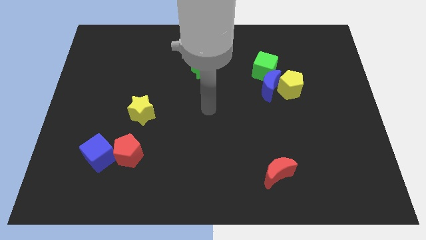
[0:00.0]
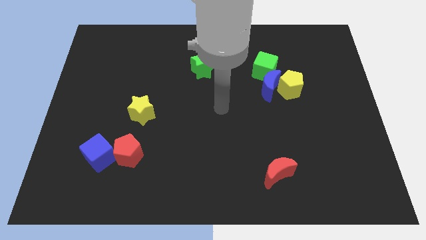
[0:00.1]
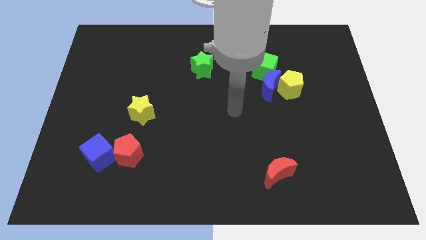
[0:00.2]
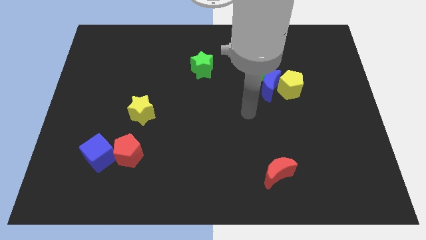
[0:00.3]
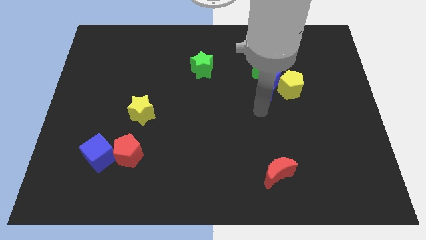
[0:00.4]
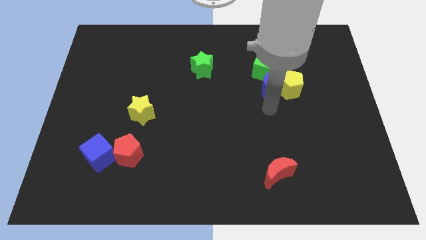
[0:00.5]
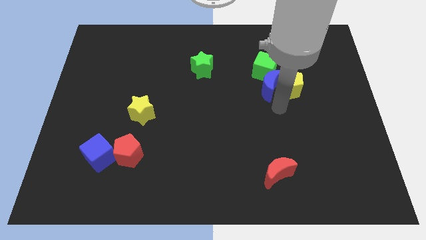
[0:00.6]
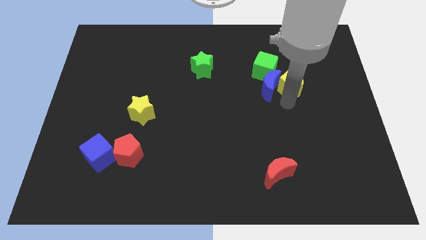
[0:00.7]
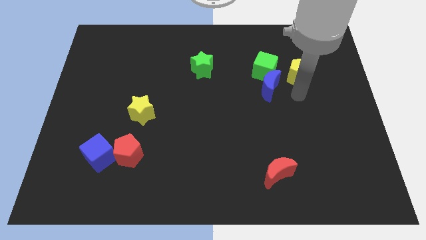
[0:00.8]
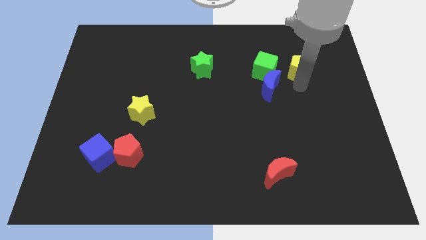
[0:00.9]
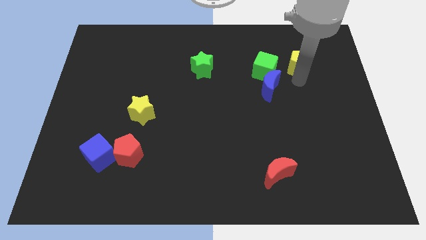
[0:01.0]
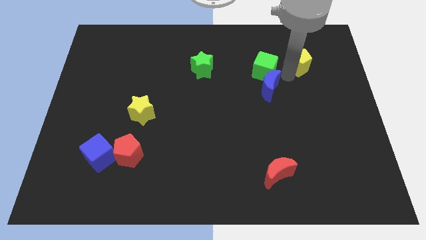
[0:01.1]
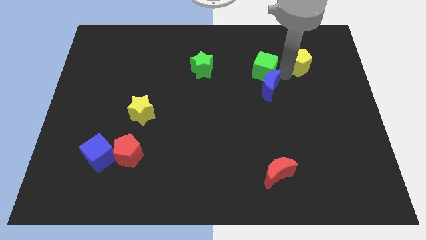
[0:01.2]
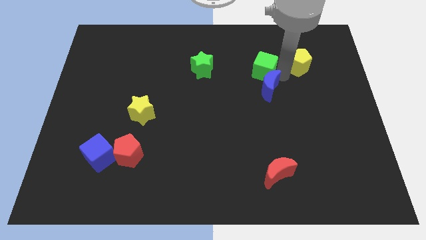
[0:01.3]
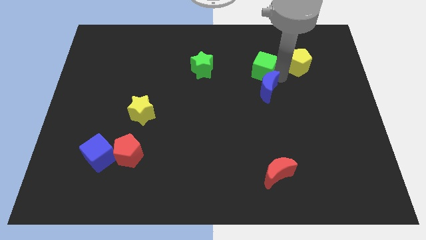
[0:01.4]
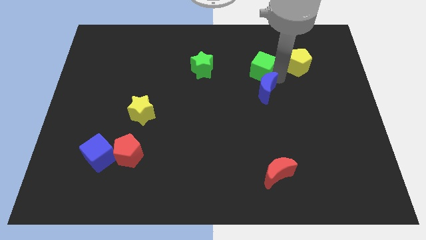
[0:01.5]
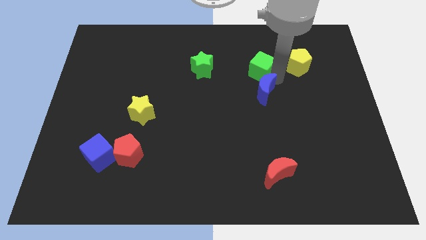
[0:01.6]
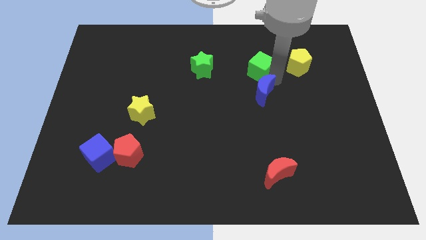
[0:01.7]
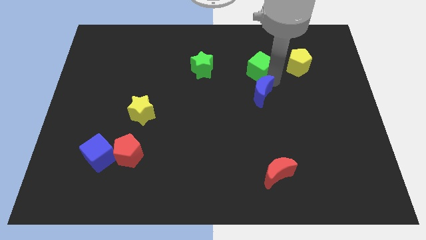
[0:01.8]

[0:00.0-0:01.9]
move the blue moon away from the yellow pentagon and green cube

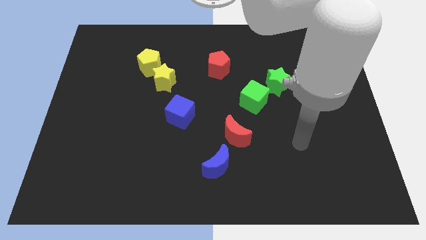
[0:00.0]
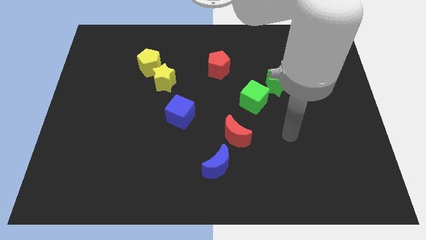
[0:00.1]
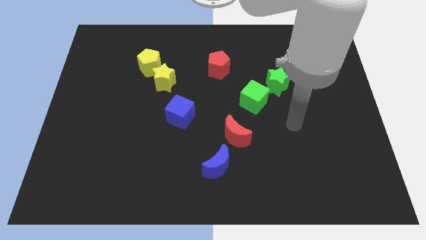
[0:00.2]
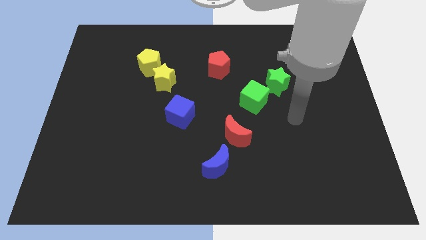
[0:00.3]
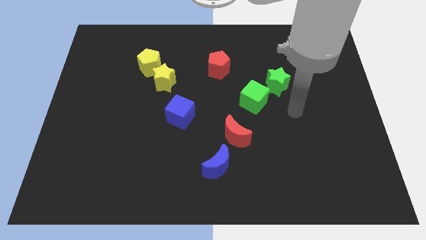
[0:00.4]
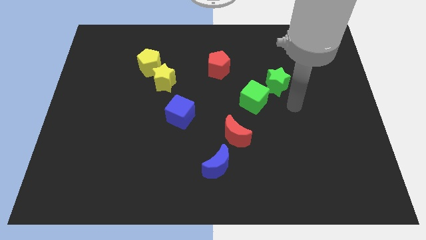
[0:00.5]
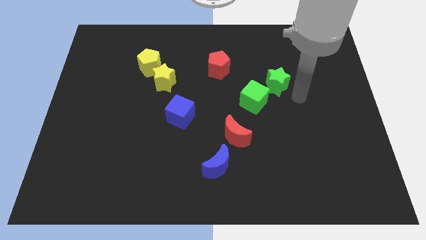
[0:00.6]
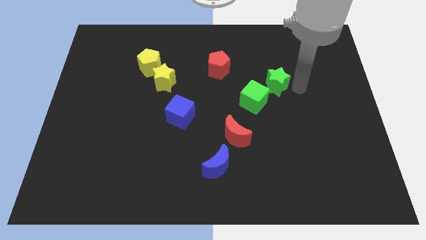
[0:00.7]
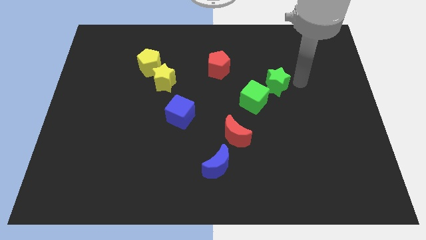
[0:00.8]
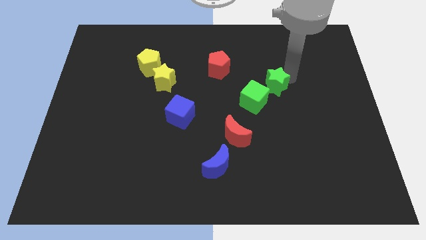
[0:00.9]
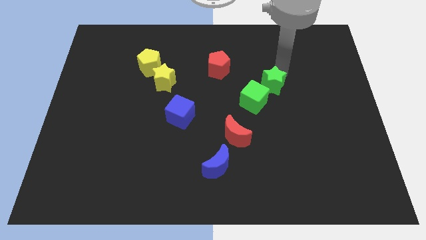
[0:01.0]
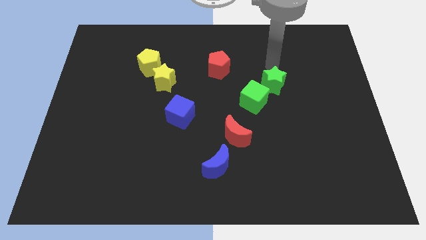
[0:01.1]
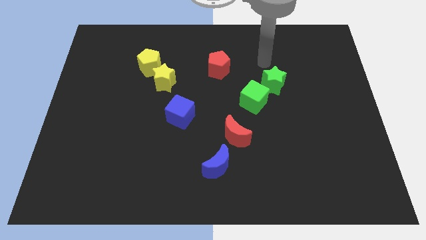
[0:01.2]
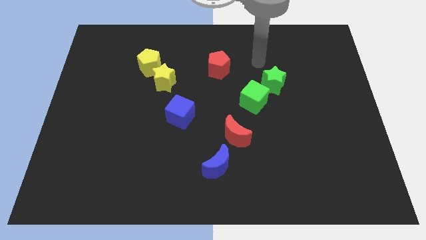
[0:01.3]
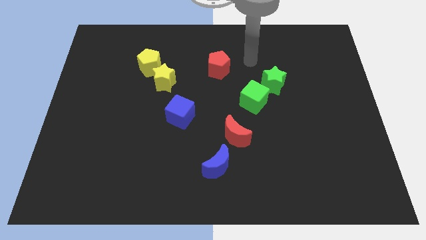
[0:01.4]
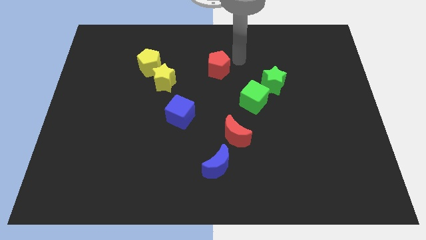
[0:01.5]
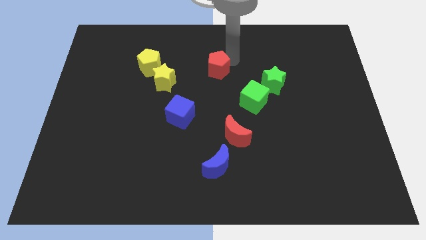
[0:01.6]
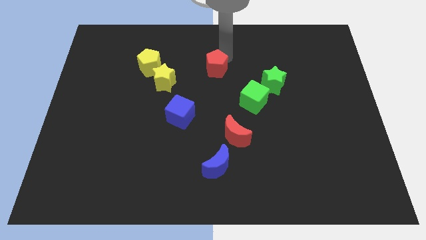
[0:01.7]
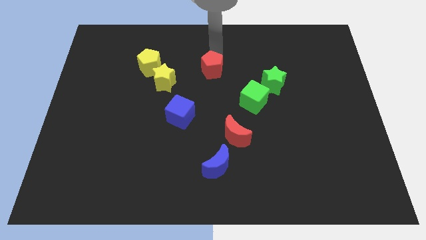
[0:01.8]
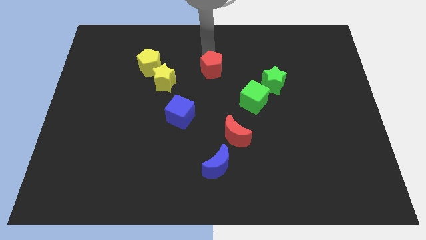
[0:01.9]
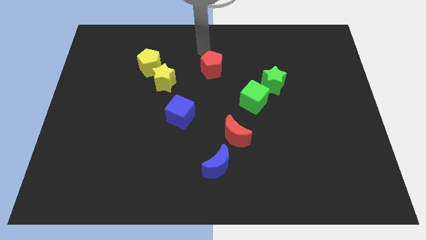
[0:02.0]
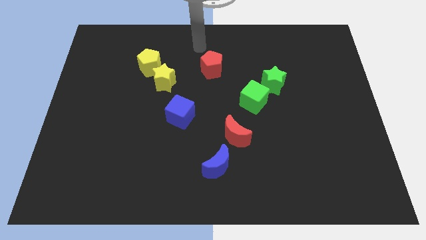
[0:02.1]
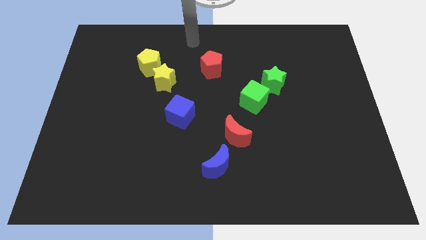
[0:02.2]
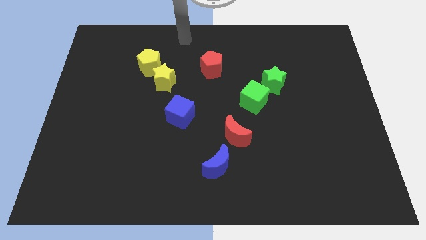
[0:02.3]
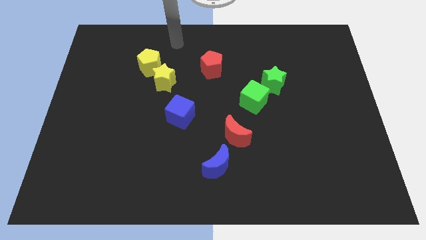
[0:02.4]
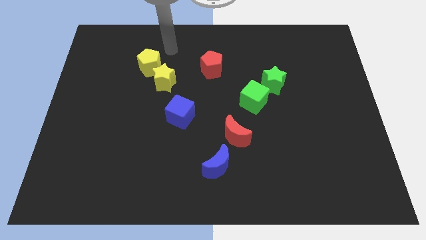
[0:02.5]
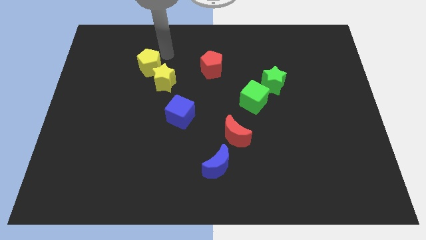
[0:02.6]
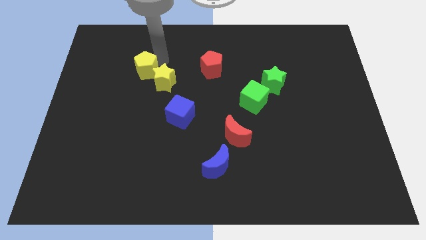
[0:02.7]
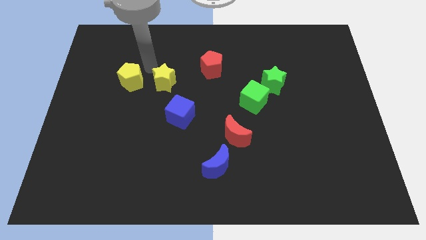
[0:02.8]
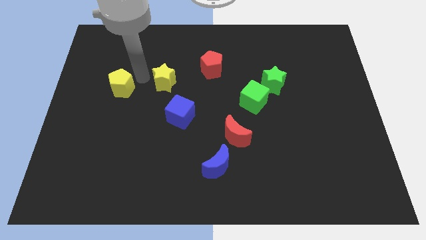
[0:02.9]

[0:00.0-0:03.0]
pull the yellow star apart from the yellow pentagon

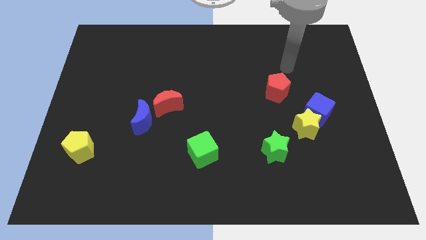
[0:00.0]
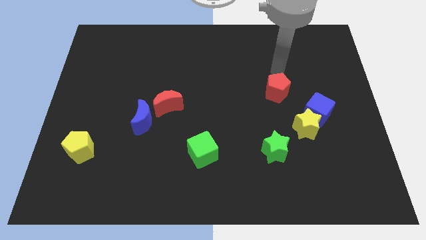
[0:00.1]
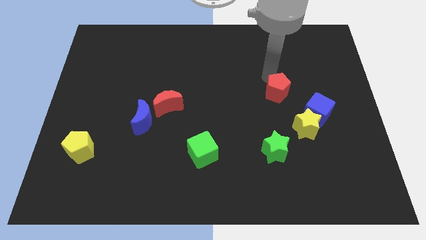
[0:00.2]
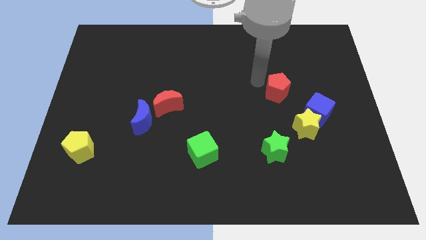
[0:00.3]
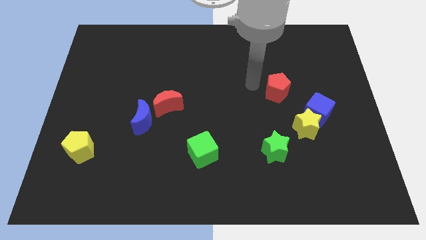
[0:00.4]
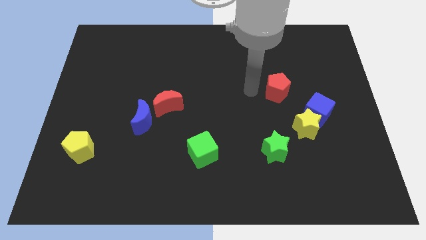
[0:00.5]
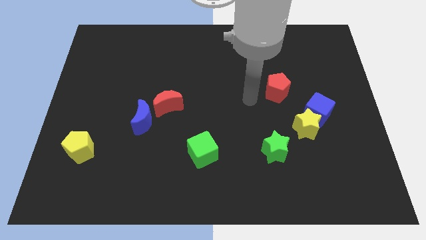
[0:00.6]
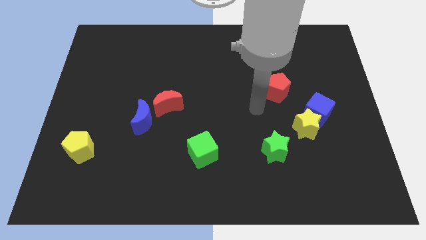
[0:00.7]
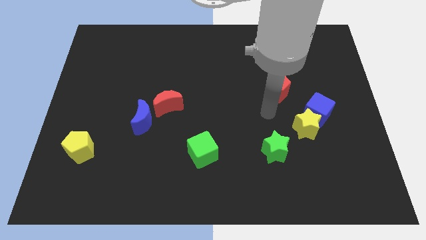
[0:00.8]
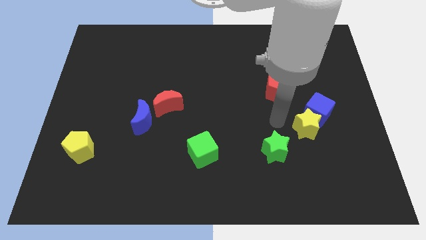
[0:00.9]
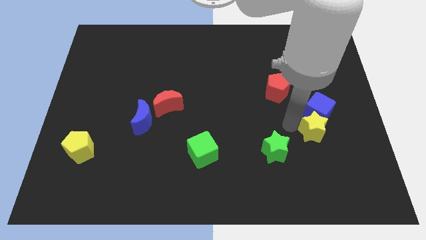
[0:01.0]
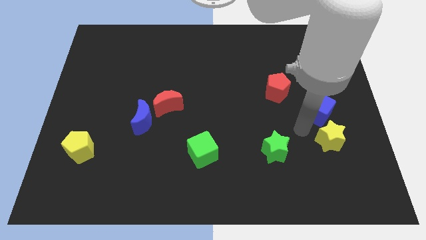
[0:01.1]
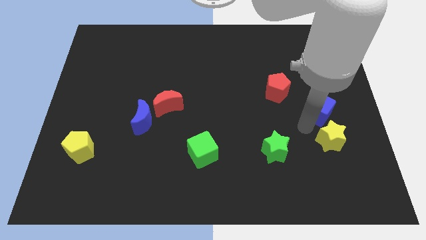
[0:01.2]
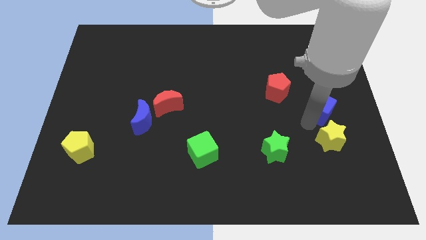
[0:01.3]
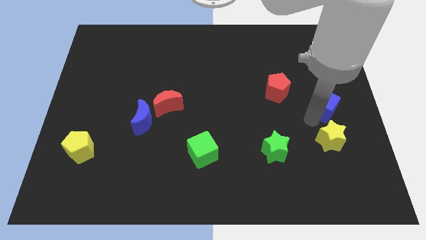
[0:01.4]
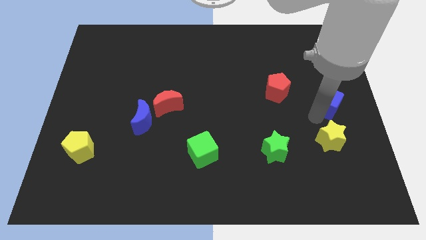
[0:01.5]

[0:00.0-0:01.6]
move the blue cube away from the yellow star

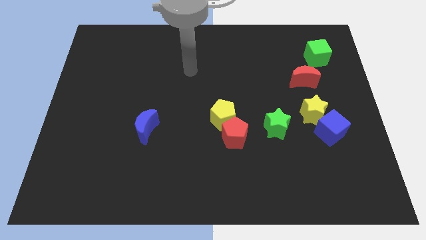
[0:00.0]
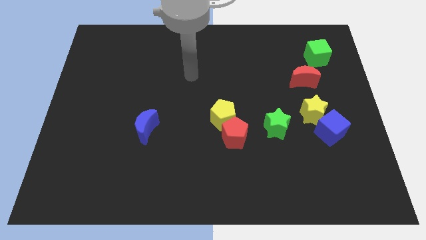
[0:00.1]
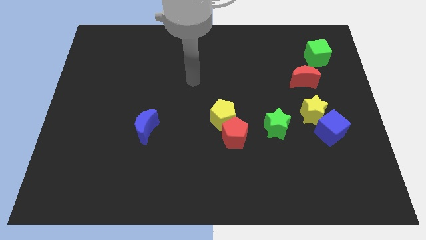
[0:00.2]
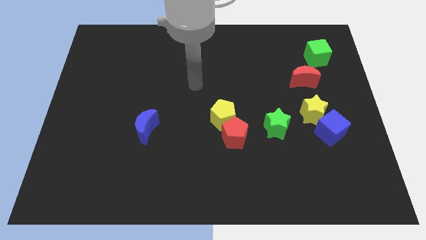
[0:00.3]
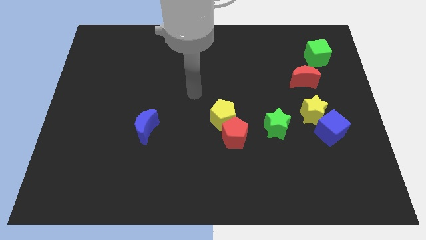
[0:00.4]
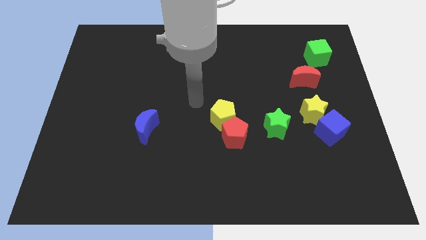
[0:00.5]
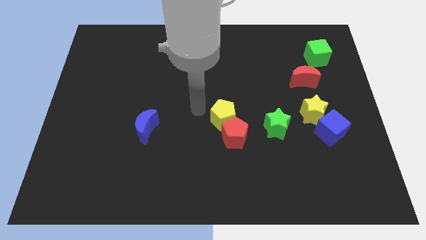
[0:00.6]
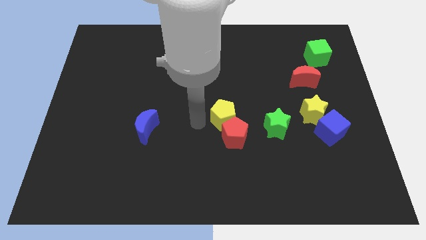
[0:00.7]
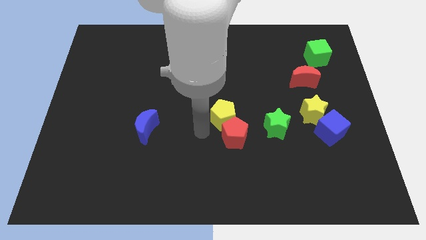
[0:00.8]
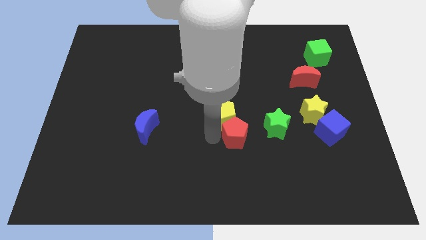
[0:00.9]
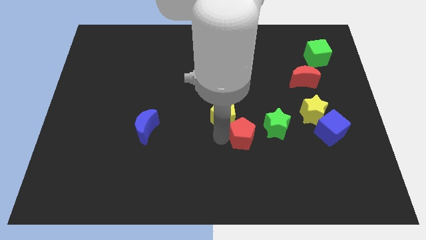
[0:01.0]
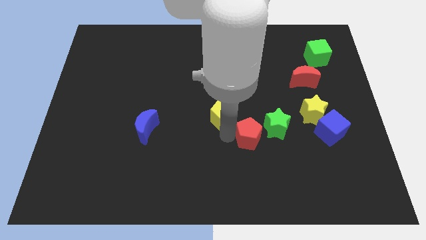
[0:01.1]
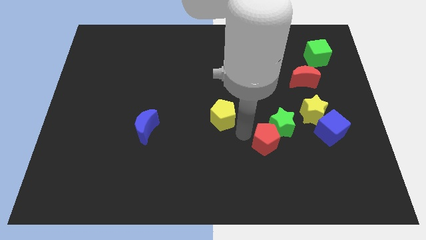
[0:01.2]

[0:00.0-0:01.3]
move the yellow pentagon away from the red pentagon

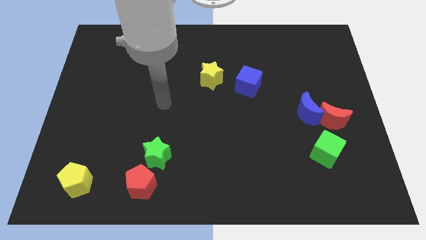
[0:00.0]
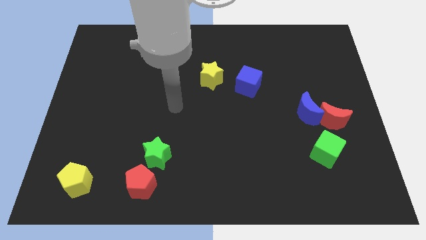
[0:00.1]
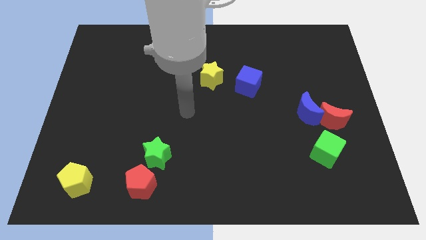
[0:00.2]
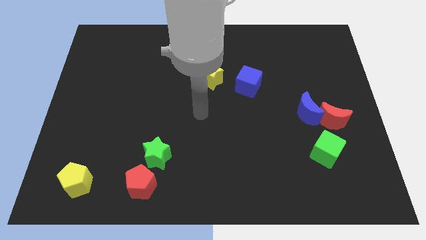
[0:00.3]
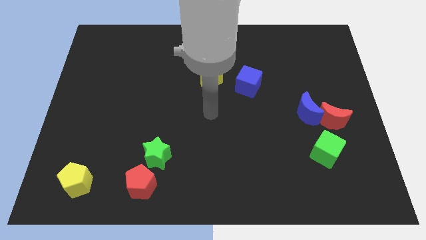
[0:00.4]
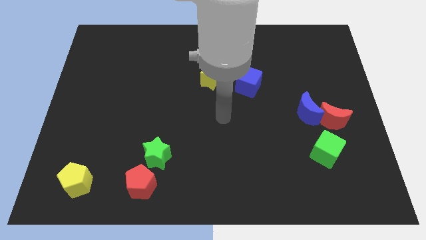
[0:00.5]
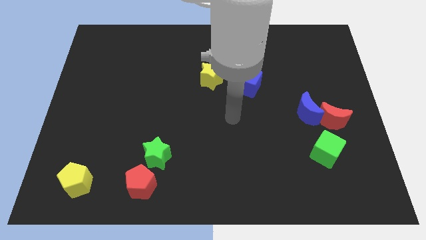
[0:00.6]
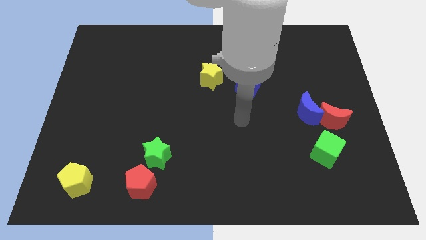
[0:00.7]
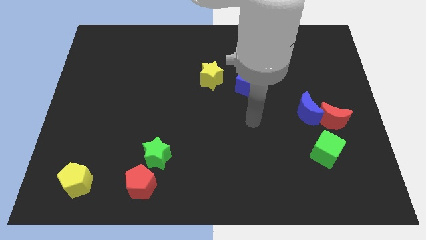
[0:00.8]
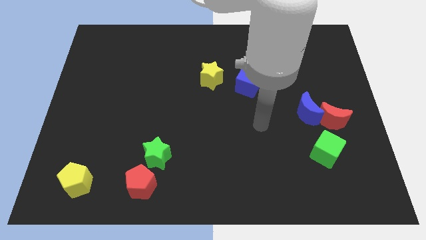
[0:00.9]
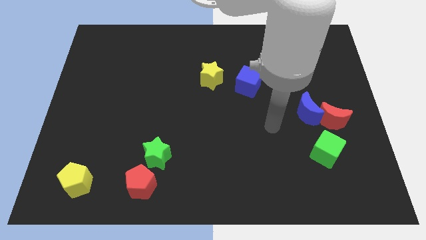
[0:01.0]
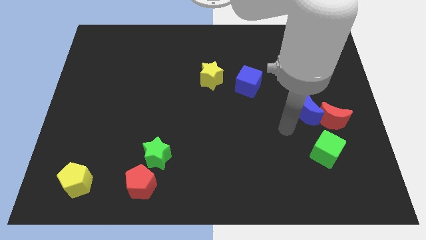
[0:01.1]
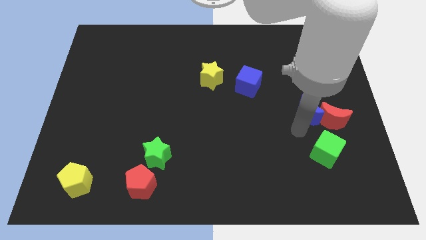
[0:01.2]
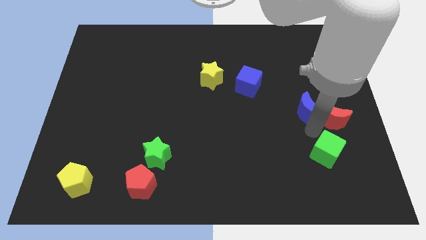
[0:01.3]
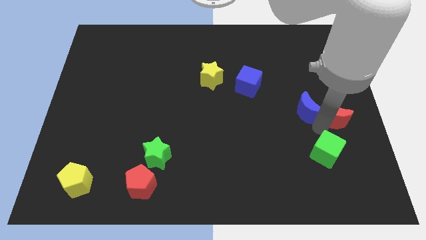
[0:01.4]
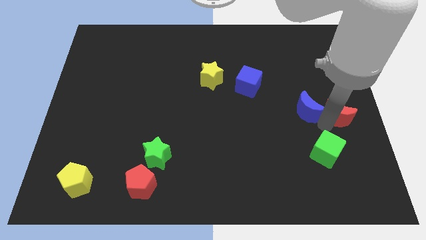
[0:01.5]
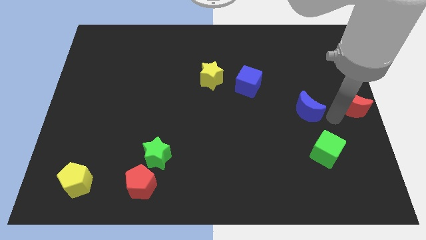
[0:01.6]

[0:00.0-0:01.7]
move the blue moon away from the red moon
